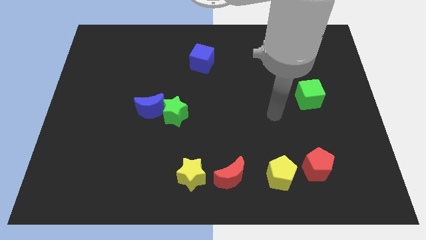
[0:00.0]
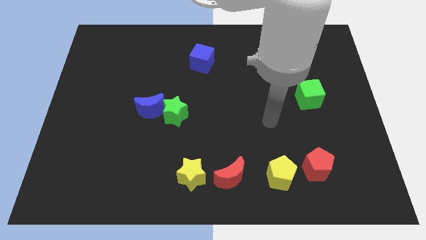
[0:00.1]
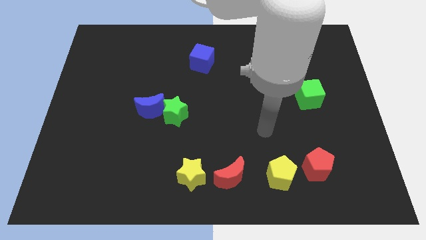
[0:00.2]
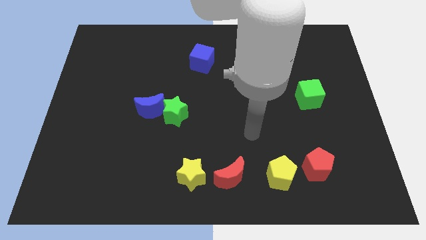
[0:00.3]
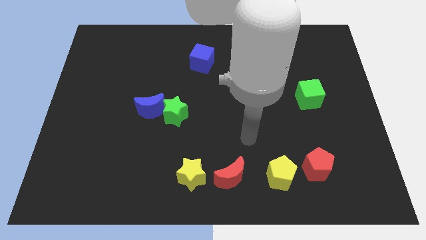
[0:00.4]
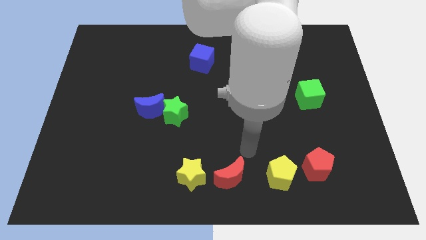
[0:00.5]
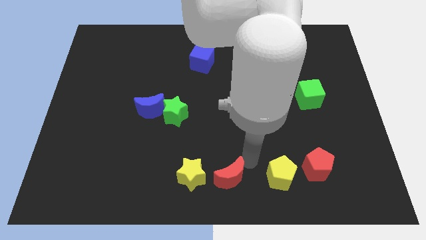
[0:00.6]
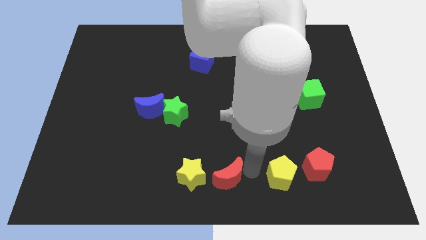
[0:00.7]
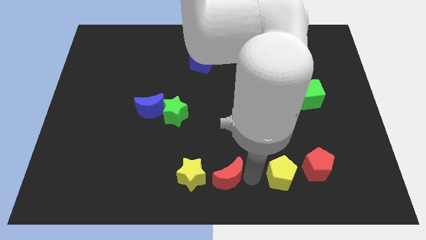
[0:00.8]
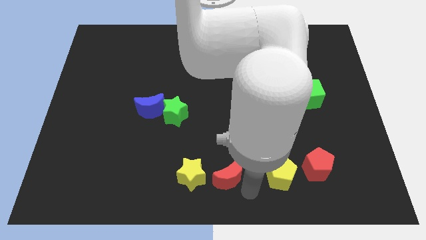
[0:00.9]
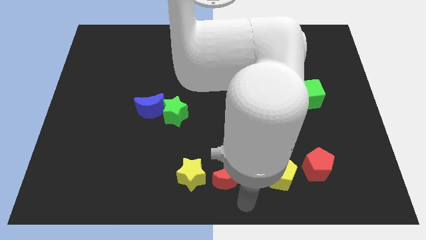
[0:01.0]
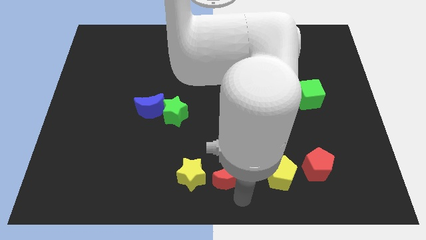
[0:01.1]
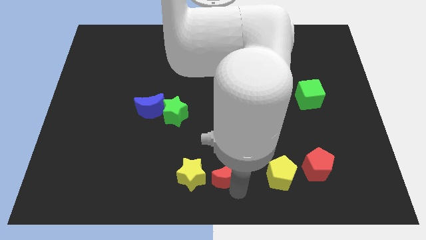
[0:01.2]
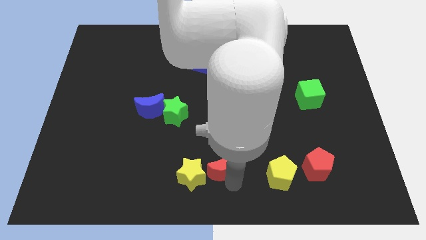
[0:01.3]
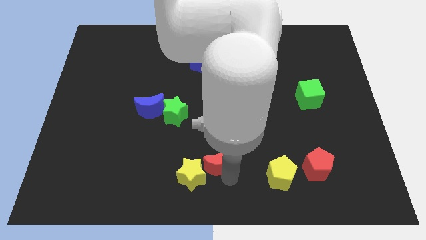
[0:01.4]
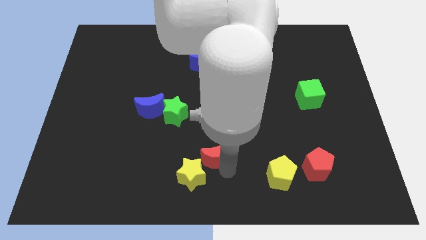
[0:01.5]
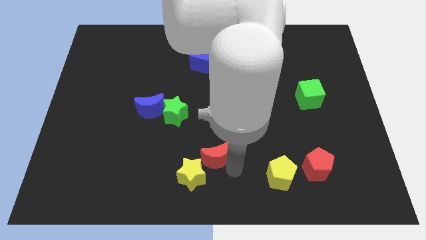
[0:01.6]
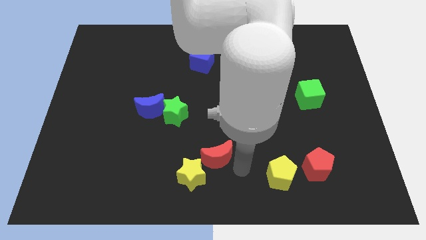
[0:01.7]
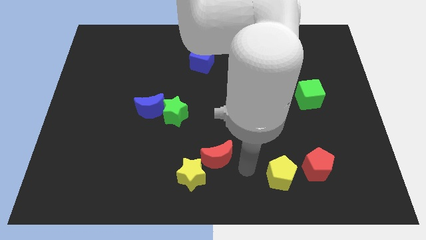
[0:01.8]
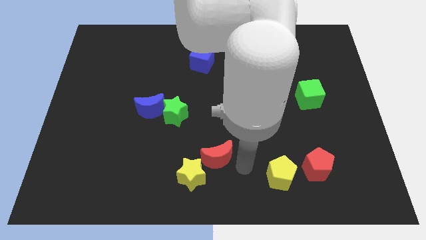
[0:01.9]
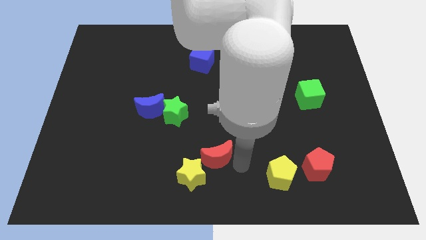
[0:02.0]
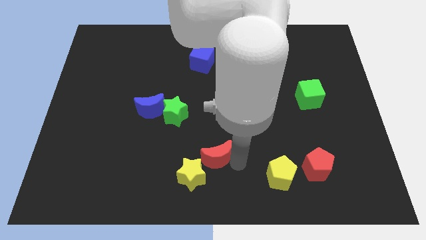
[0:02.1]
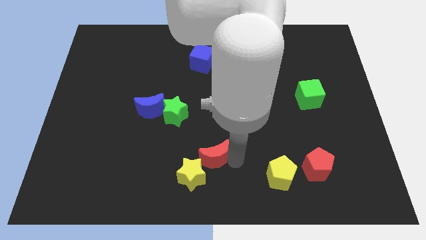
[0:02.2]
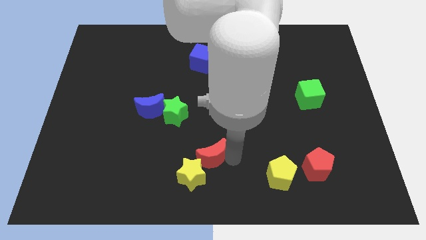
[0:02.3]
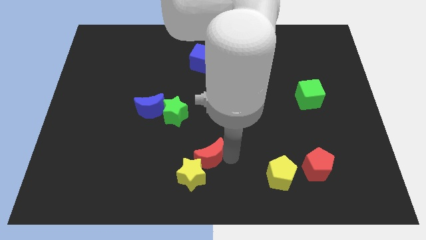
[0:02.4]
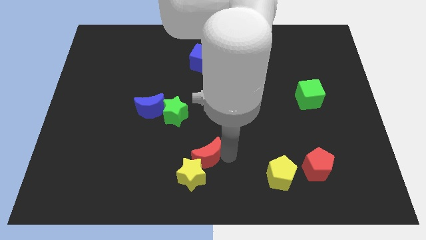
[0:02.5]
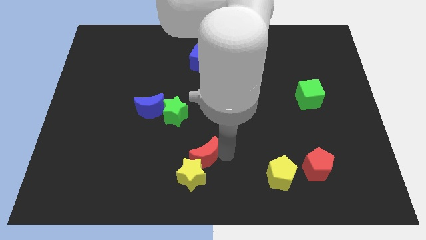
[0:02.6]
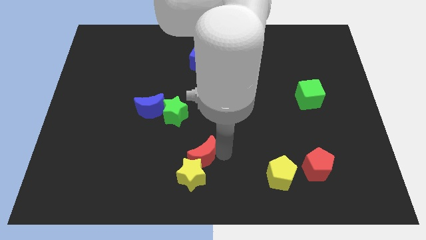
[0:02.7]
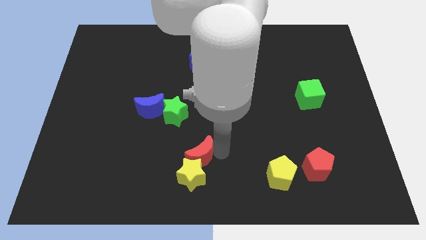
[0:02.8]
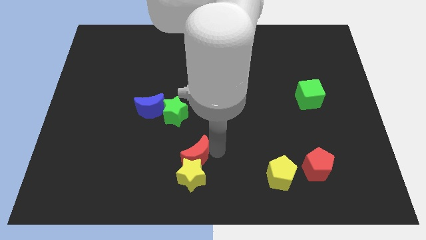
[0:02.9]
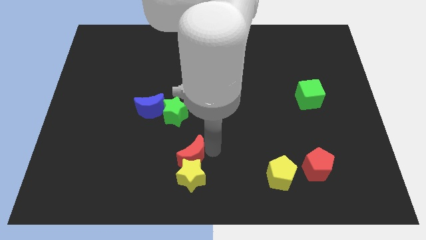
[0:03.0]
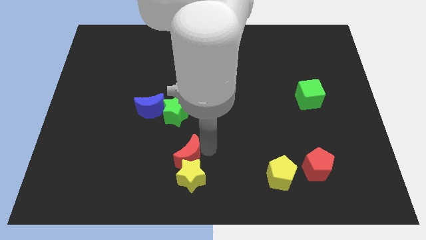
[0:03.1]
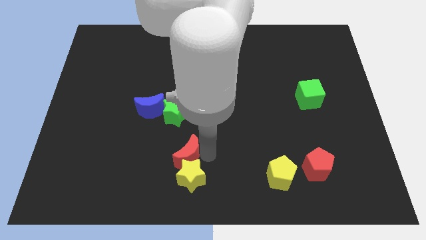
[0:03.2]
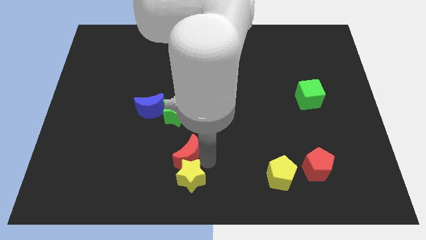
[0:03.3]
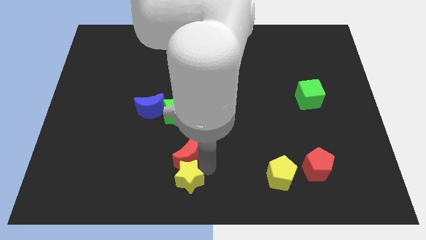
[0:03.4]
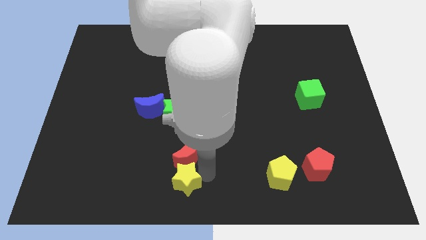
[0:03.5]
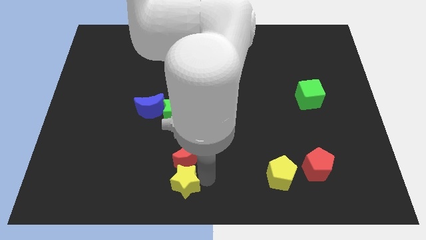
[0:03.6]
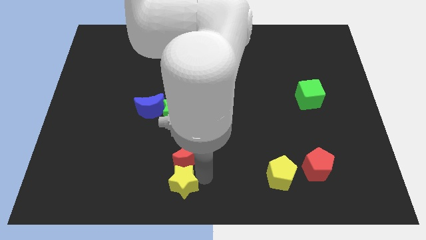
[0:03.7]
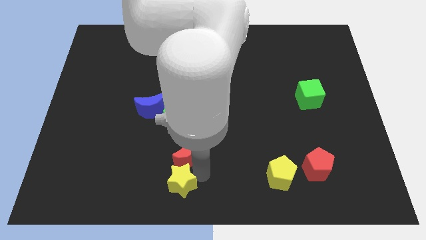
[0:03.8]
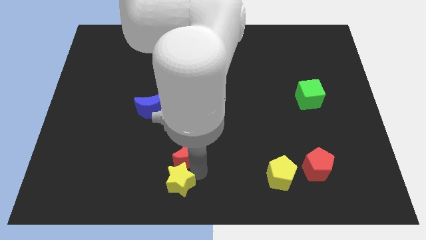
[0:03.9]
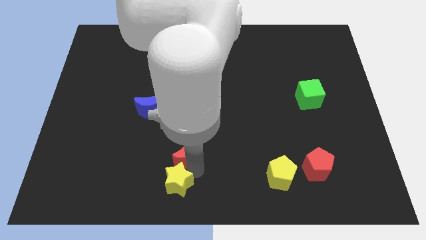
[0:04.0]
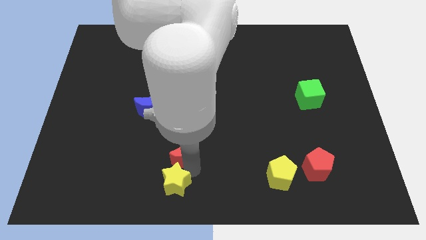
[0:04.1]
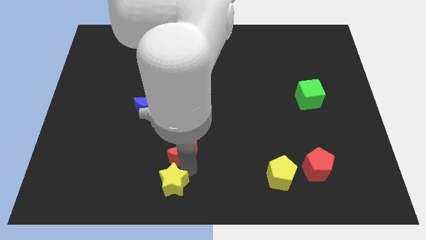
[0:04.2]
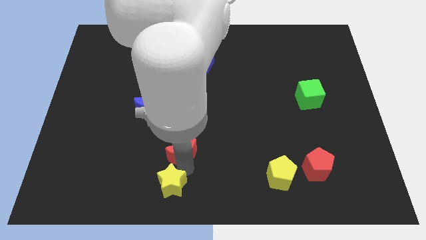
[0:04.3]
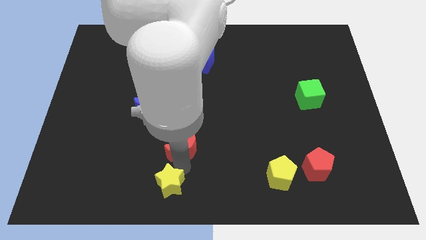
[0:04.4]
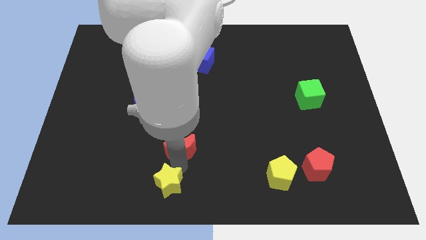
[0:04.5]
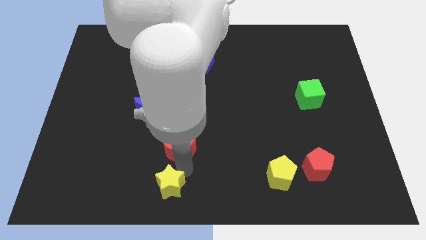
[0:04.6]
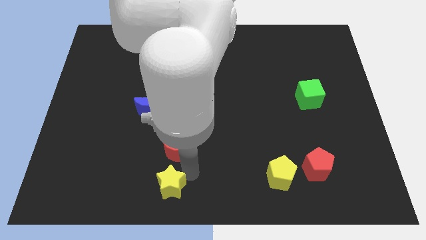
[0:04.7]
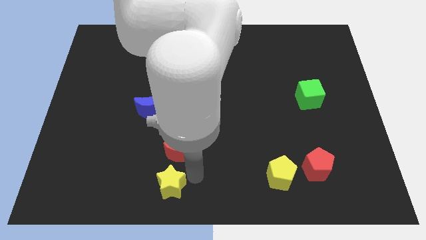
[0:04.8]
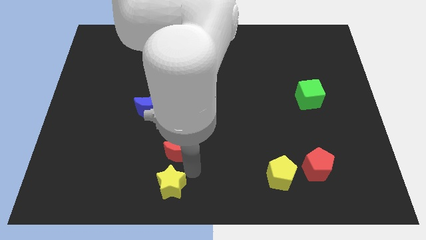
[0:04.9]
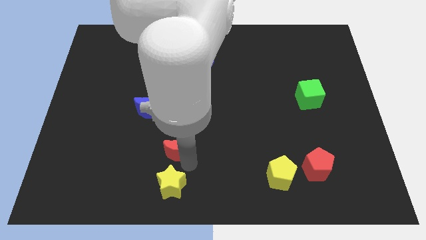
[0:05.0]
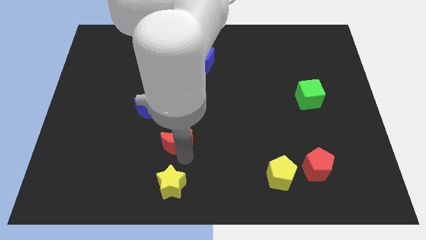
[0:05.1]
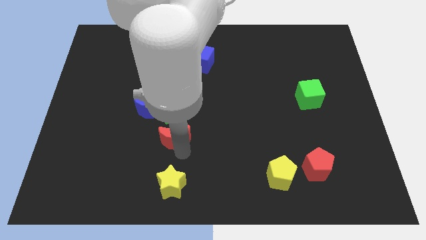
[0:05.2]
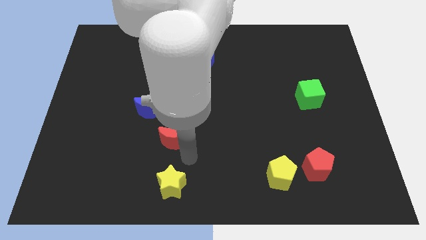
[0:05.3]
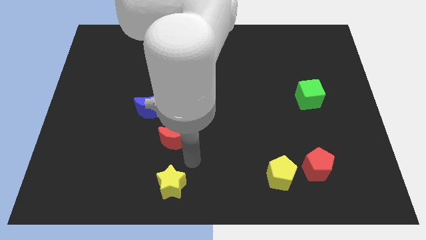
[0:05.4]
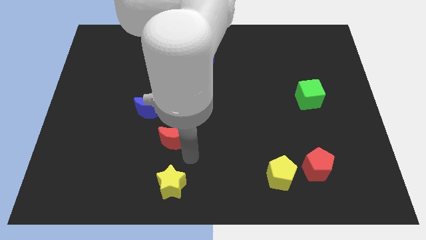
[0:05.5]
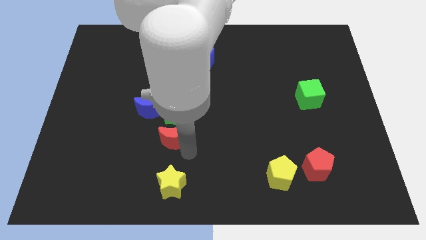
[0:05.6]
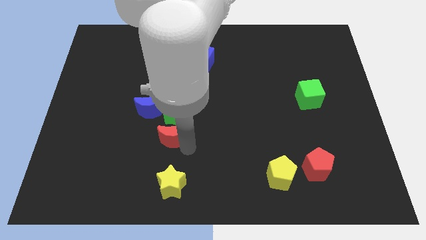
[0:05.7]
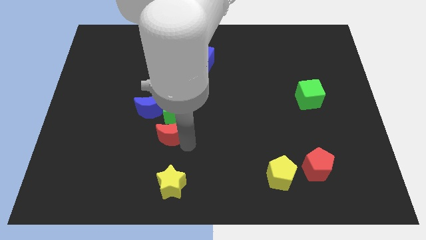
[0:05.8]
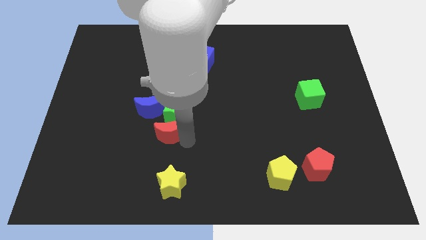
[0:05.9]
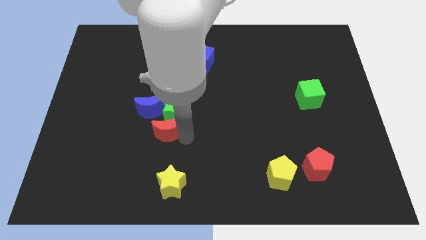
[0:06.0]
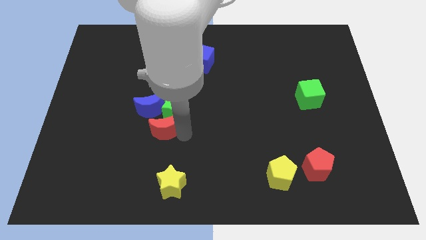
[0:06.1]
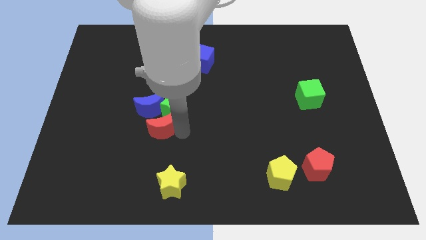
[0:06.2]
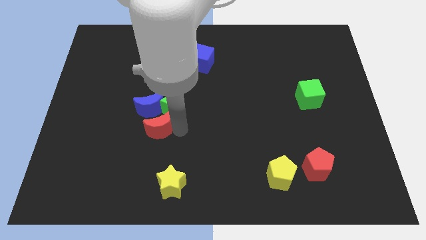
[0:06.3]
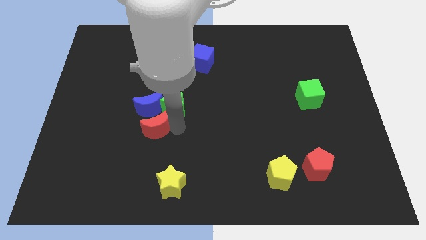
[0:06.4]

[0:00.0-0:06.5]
move the red moon close to the blue moon

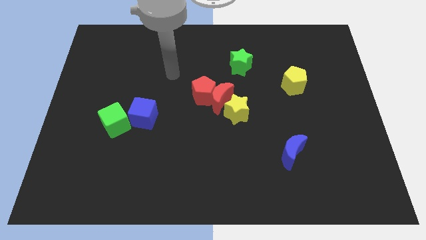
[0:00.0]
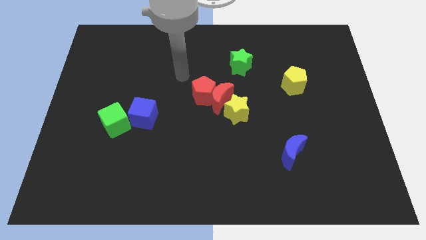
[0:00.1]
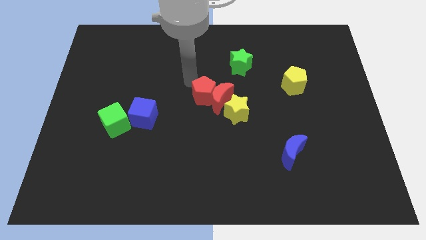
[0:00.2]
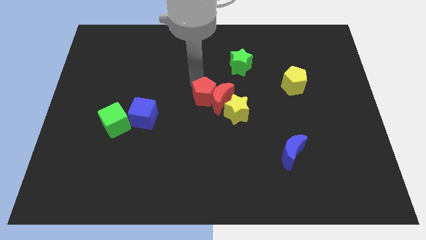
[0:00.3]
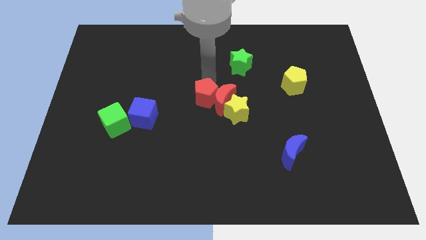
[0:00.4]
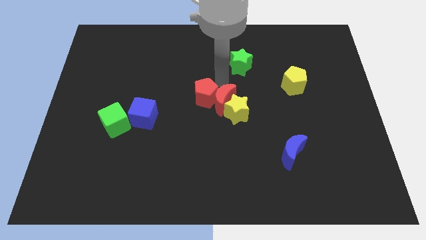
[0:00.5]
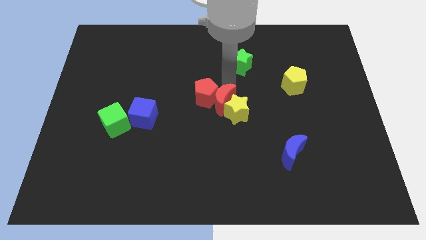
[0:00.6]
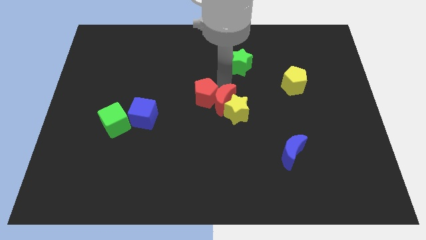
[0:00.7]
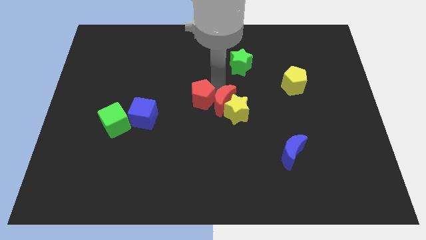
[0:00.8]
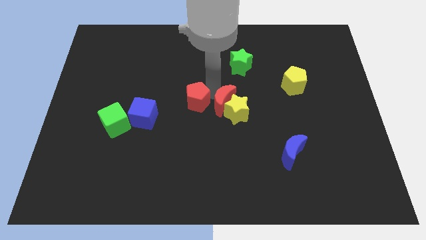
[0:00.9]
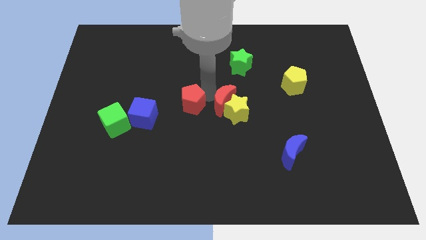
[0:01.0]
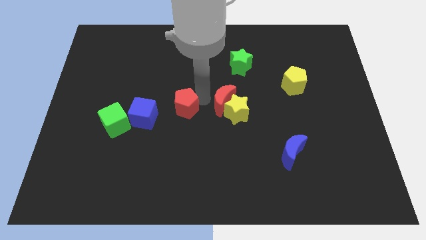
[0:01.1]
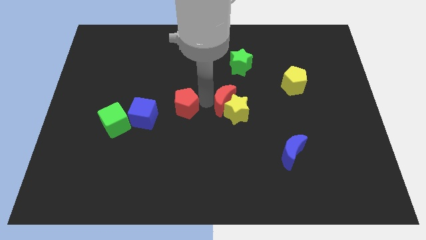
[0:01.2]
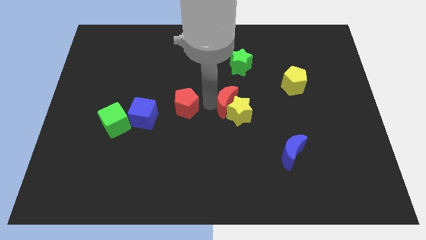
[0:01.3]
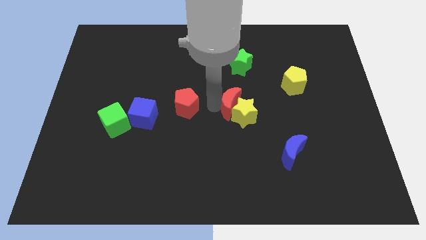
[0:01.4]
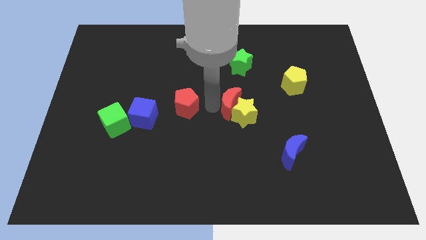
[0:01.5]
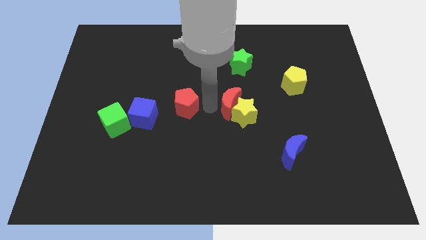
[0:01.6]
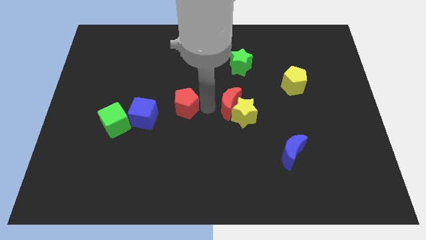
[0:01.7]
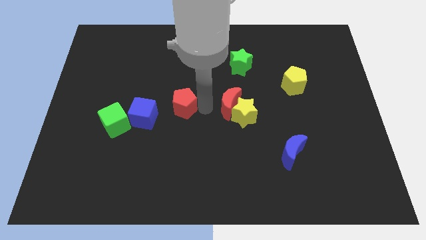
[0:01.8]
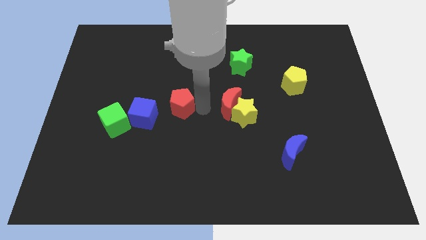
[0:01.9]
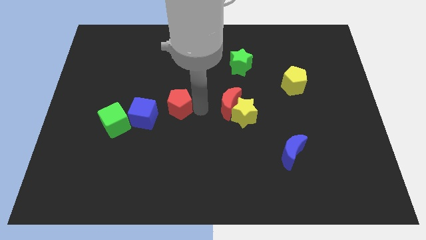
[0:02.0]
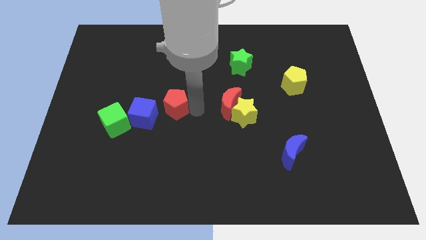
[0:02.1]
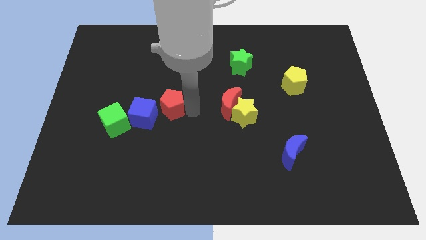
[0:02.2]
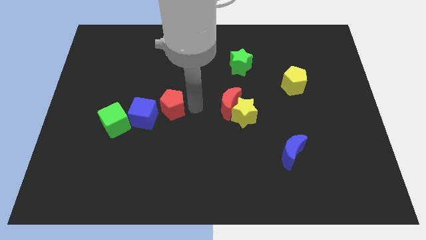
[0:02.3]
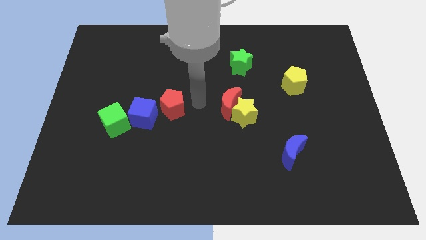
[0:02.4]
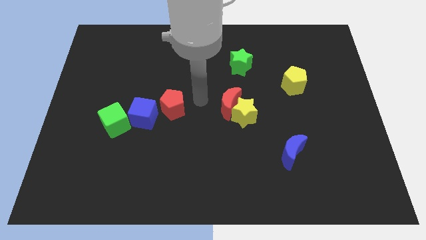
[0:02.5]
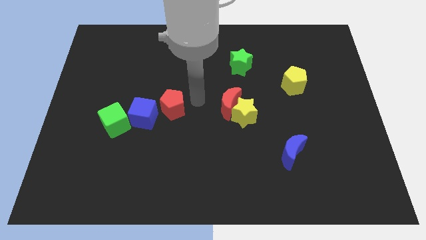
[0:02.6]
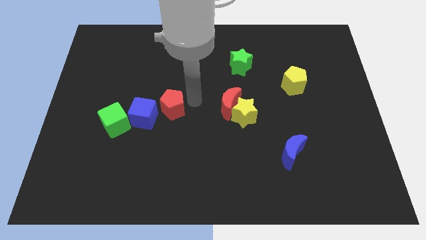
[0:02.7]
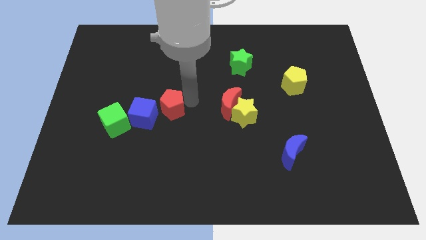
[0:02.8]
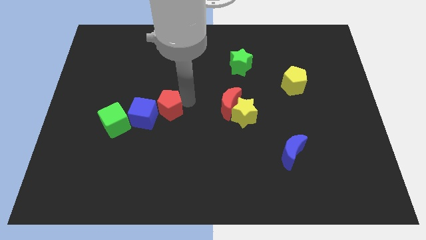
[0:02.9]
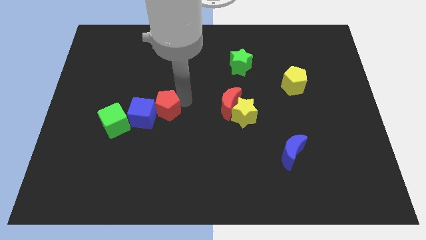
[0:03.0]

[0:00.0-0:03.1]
put the red pentagon to the blue cube
